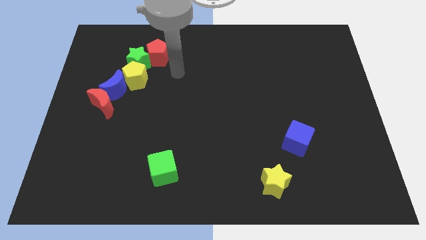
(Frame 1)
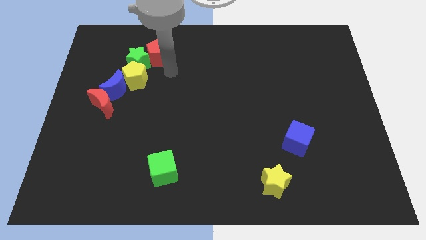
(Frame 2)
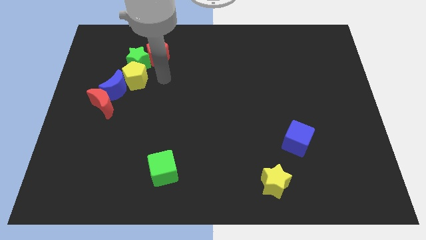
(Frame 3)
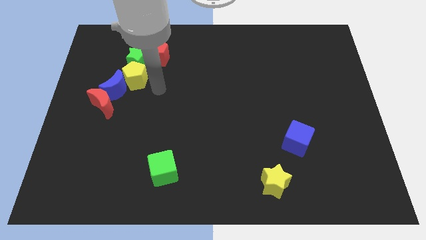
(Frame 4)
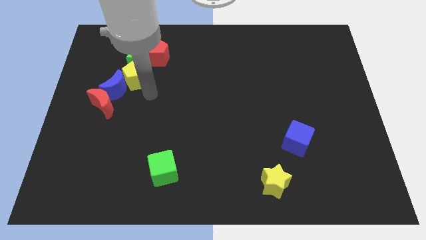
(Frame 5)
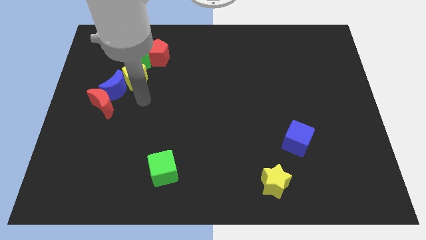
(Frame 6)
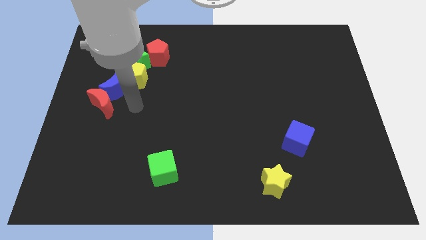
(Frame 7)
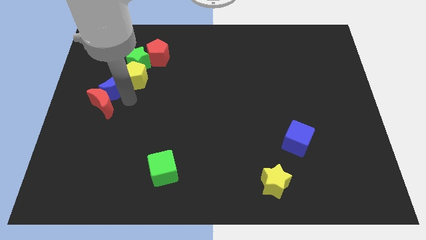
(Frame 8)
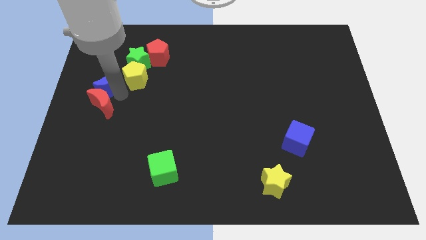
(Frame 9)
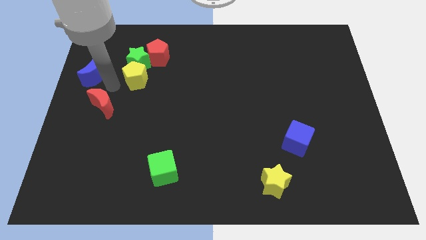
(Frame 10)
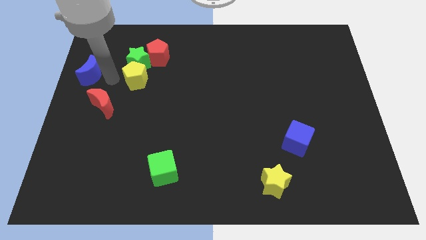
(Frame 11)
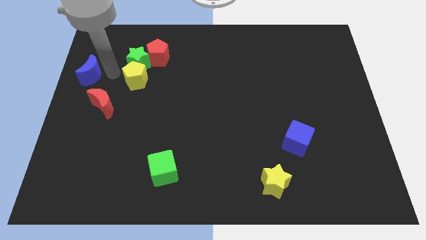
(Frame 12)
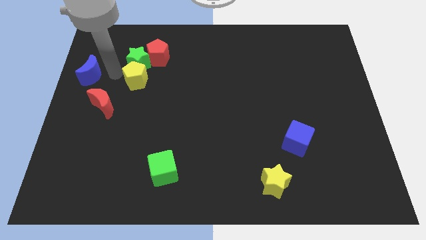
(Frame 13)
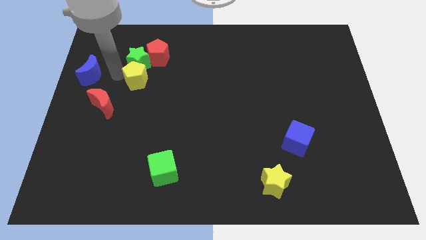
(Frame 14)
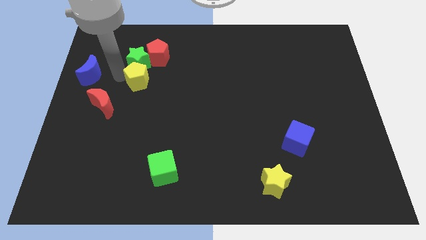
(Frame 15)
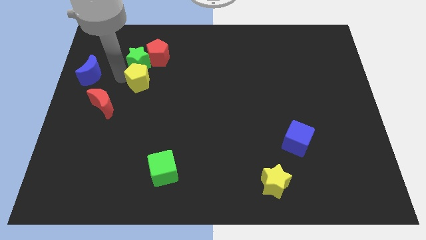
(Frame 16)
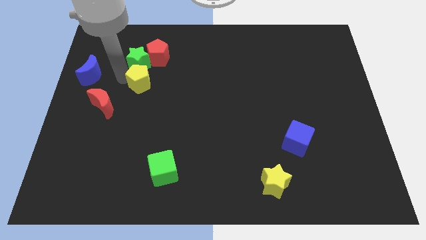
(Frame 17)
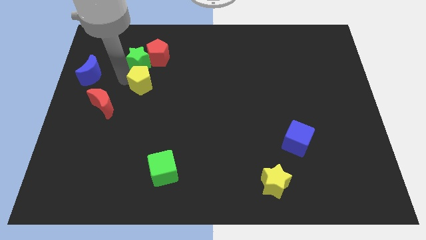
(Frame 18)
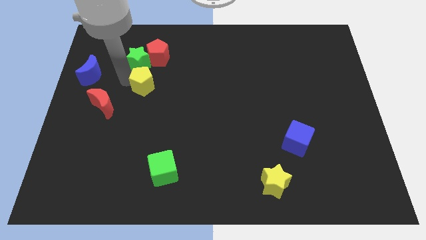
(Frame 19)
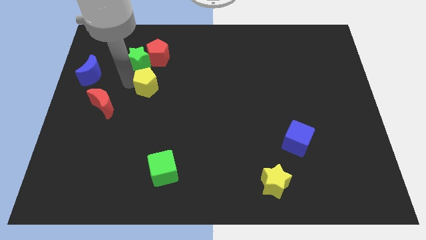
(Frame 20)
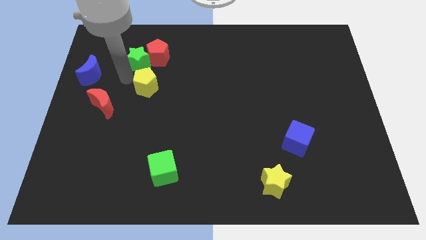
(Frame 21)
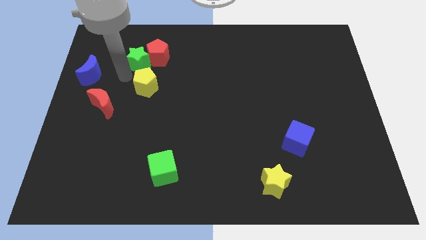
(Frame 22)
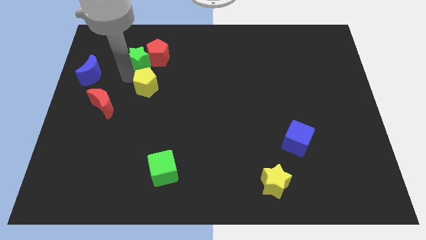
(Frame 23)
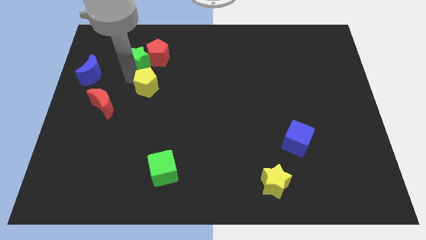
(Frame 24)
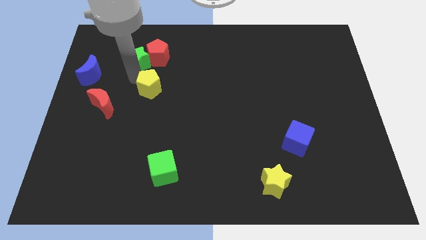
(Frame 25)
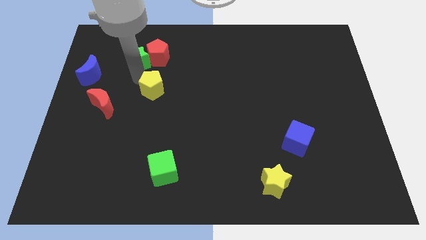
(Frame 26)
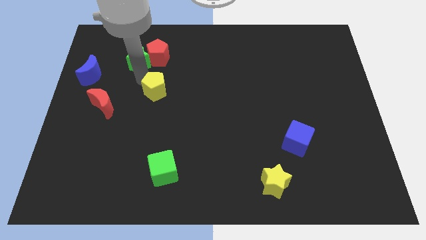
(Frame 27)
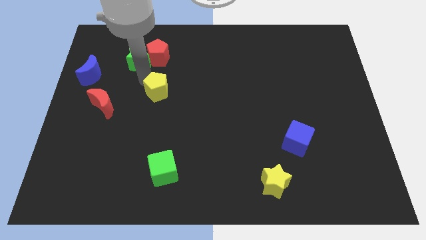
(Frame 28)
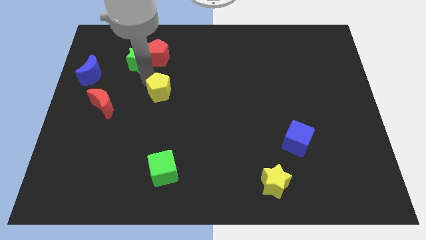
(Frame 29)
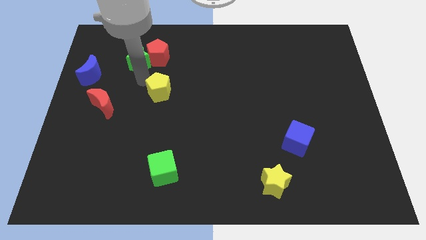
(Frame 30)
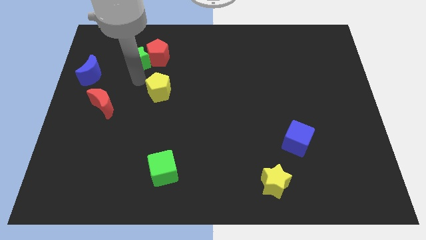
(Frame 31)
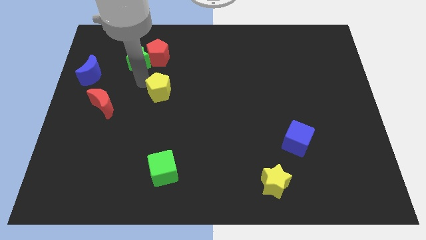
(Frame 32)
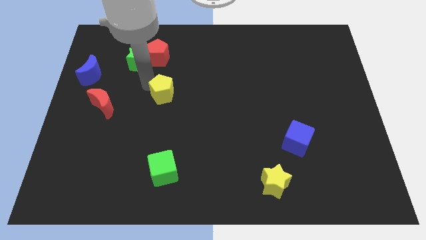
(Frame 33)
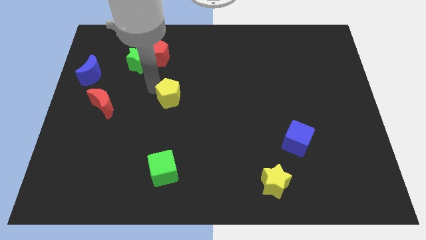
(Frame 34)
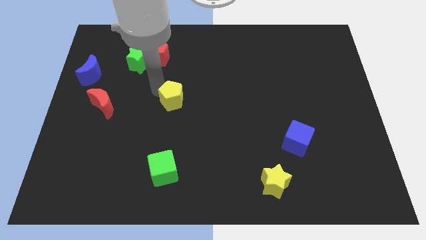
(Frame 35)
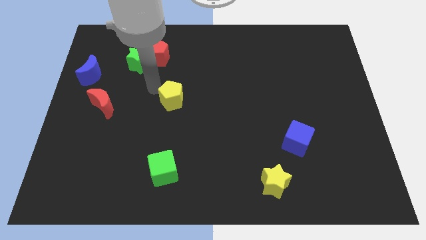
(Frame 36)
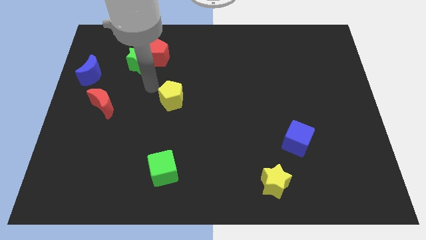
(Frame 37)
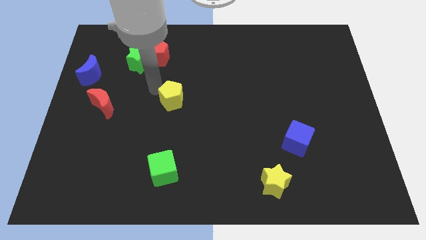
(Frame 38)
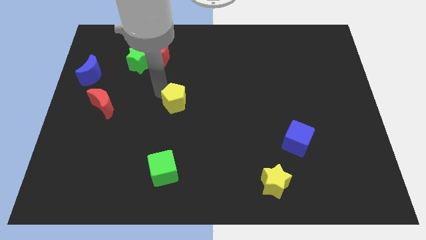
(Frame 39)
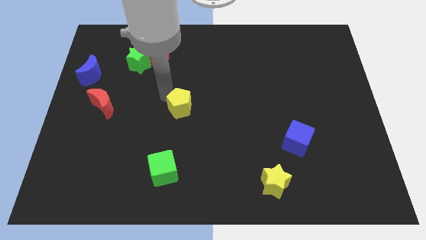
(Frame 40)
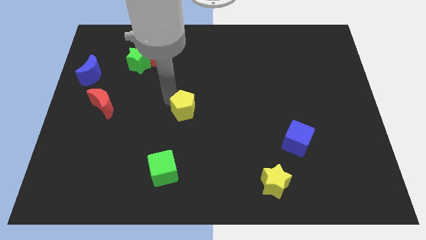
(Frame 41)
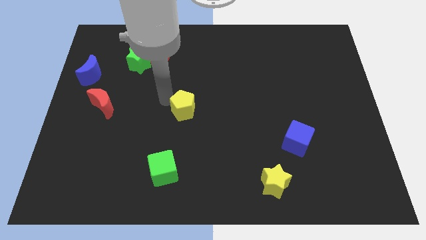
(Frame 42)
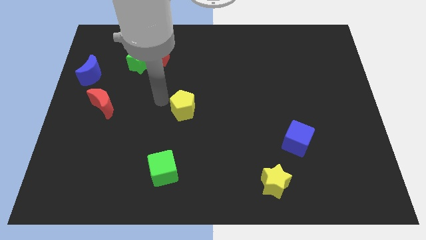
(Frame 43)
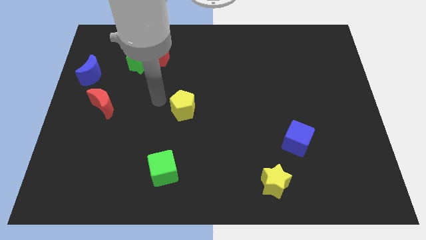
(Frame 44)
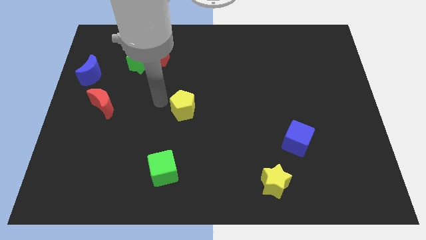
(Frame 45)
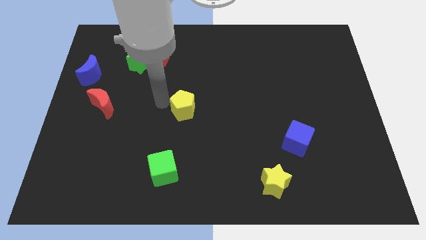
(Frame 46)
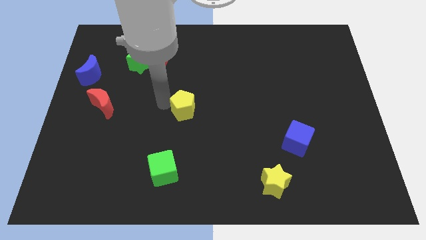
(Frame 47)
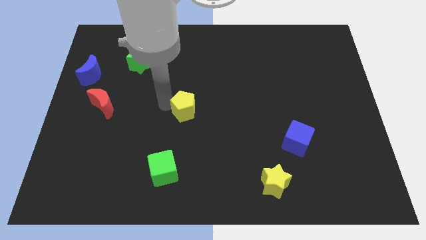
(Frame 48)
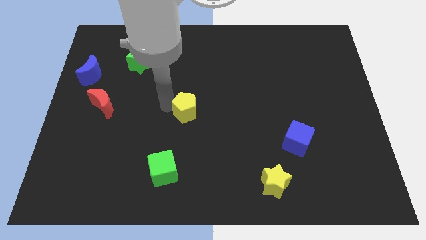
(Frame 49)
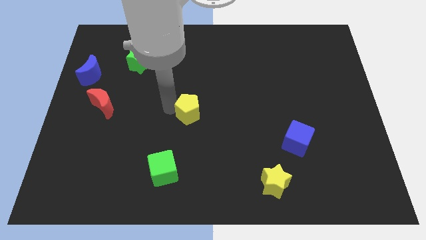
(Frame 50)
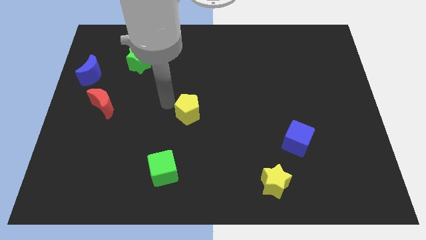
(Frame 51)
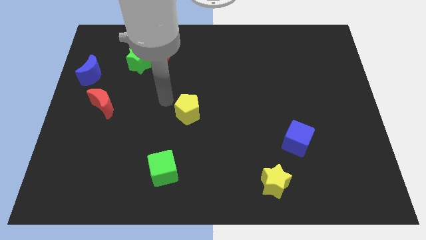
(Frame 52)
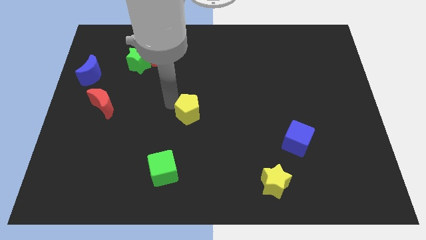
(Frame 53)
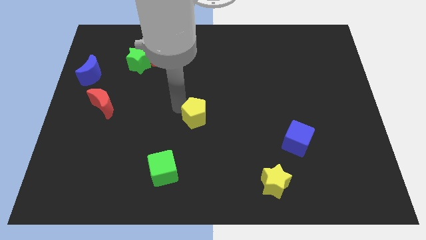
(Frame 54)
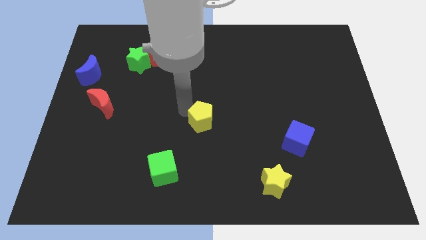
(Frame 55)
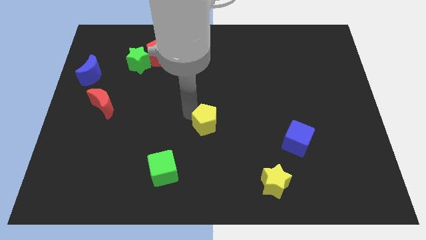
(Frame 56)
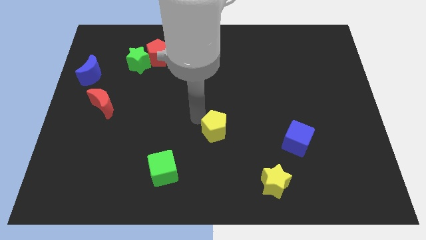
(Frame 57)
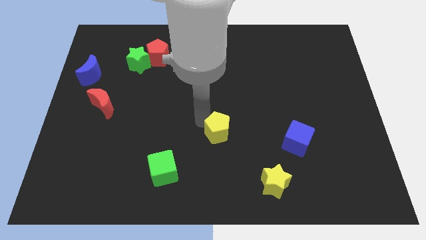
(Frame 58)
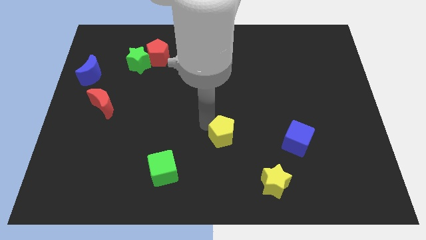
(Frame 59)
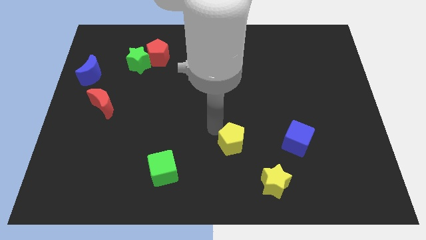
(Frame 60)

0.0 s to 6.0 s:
put the yellow pentagon to the top left side of the yellow star

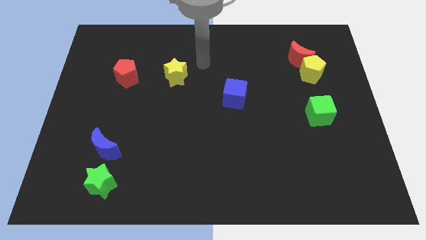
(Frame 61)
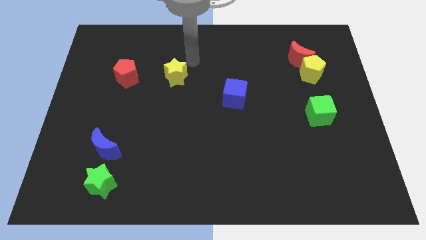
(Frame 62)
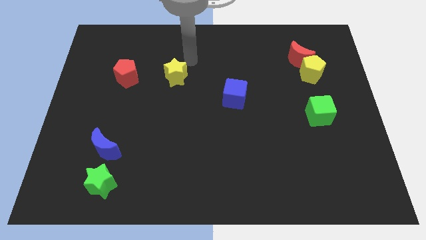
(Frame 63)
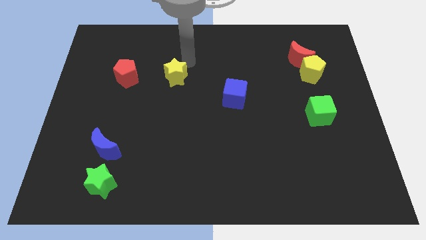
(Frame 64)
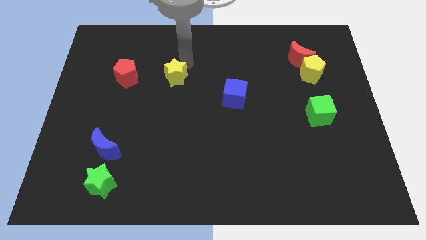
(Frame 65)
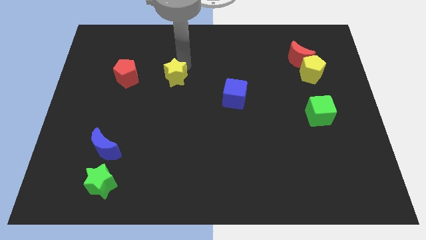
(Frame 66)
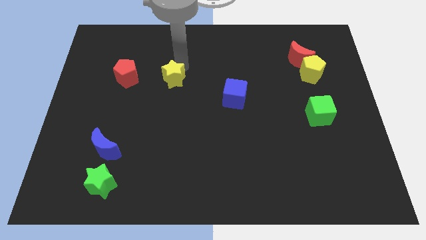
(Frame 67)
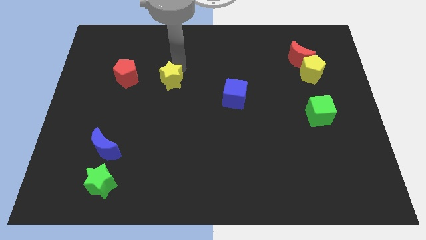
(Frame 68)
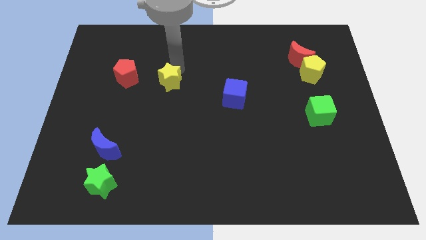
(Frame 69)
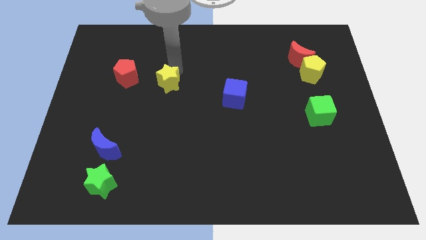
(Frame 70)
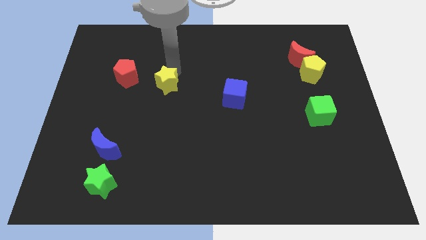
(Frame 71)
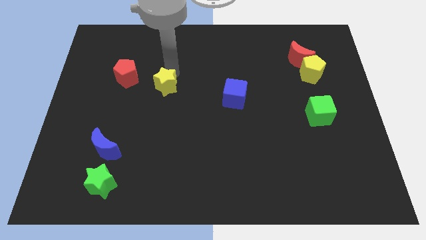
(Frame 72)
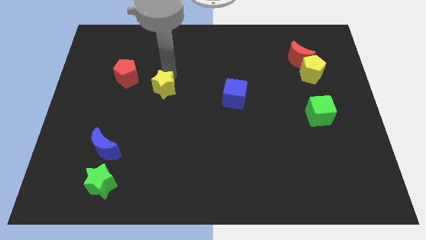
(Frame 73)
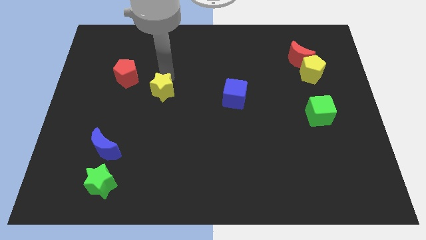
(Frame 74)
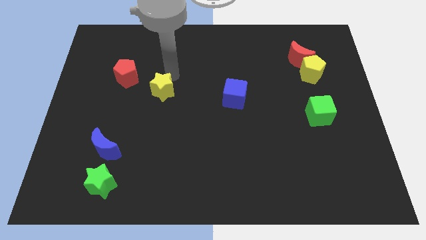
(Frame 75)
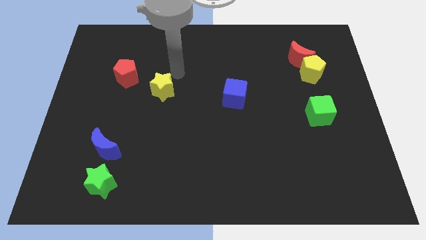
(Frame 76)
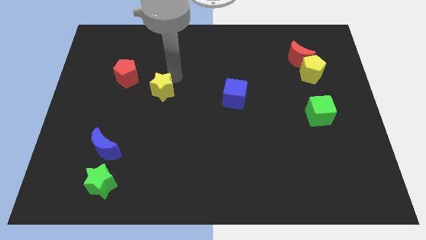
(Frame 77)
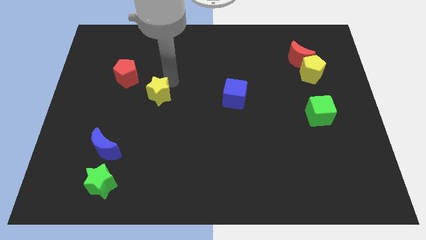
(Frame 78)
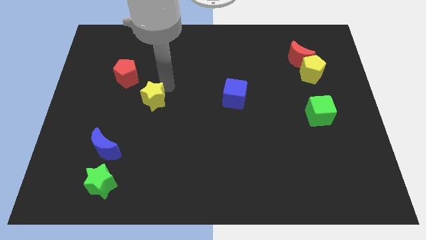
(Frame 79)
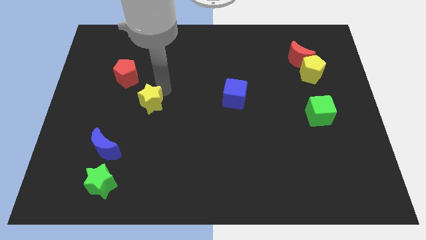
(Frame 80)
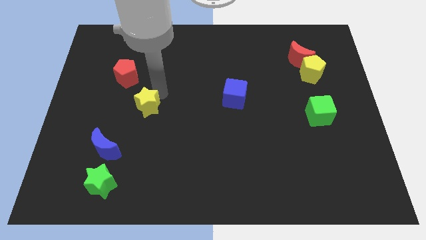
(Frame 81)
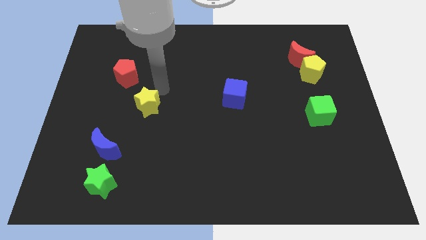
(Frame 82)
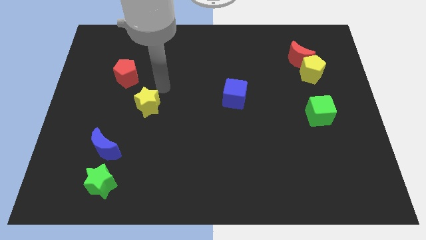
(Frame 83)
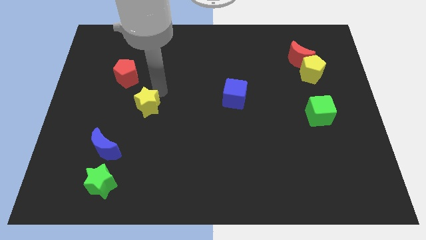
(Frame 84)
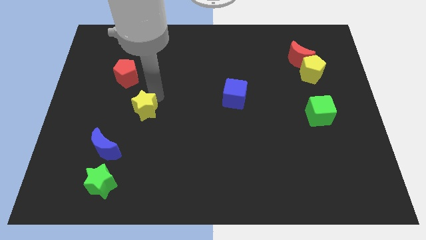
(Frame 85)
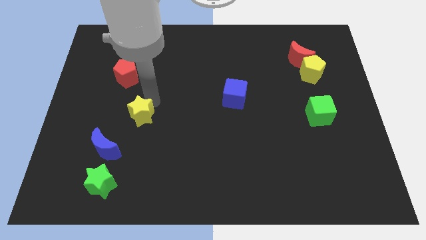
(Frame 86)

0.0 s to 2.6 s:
slide the yellow star to the top right side of the blue moon
